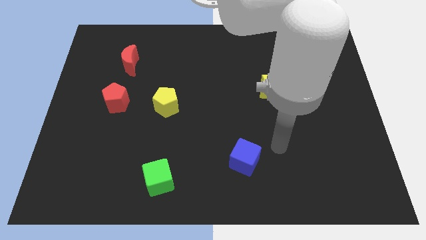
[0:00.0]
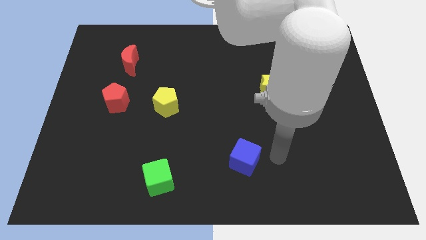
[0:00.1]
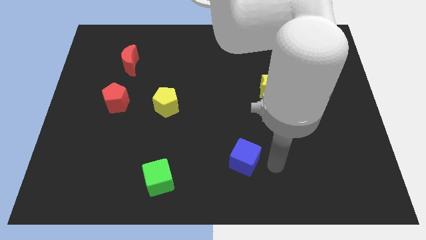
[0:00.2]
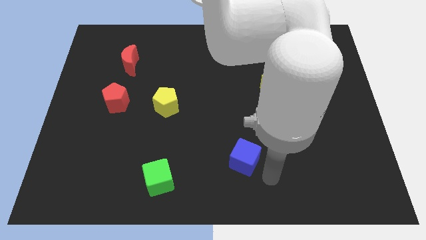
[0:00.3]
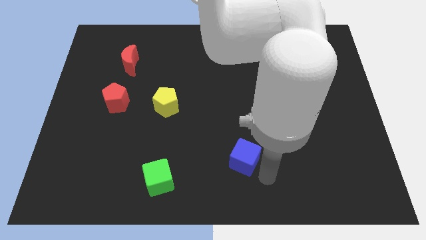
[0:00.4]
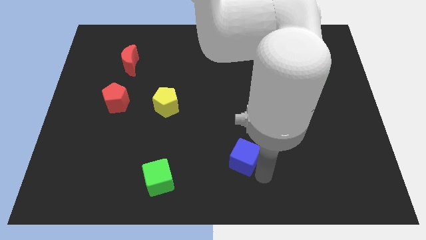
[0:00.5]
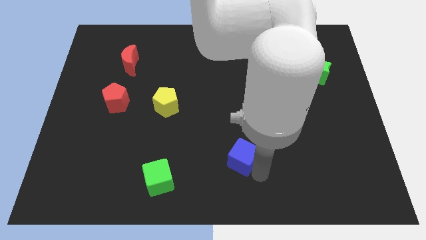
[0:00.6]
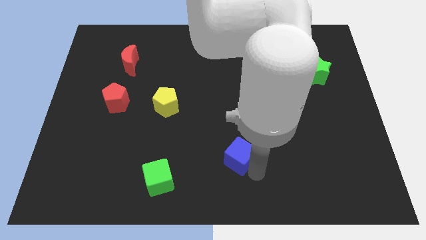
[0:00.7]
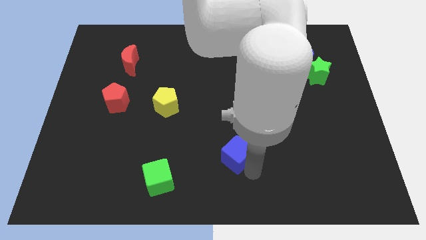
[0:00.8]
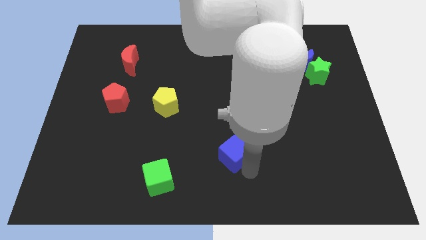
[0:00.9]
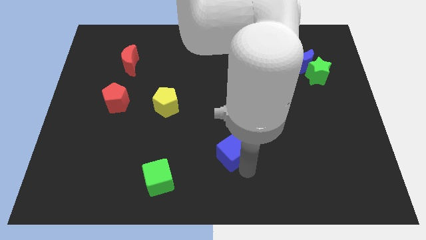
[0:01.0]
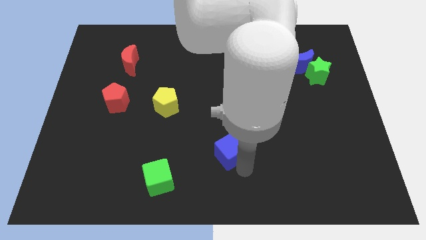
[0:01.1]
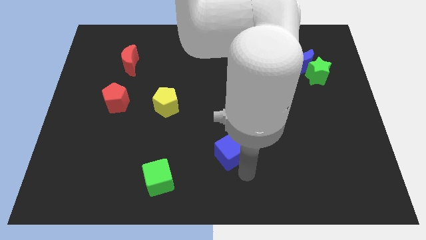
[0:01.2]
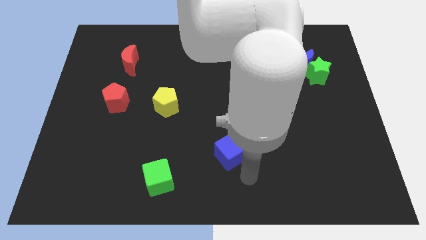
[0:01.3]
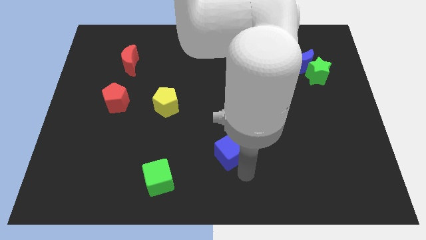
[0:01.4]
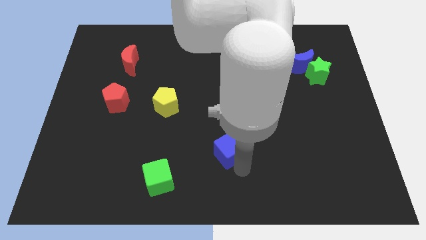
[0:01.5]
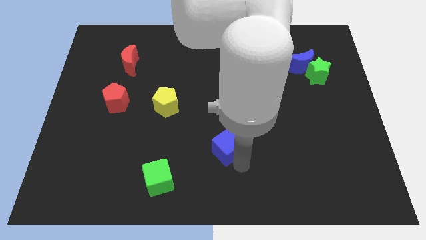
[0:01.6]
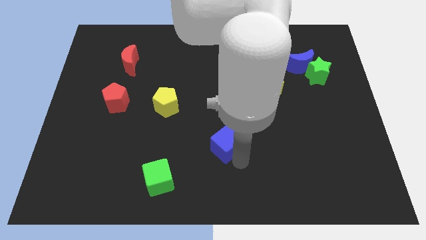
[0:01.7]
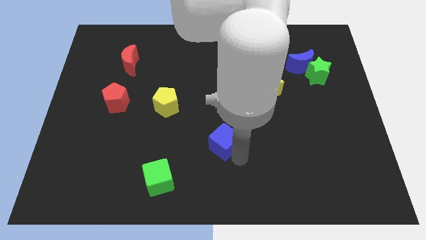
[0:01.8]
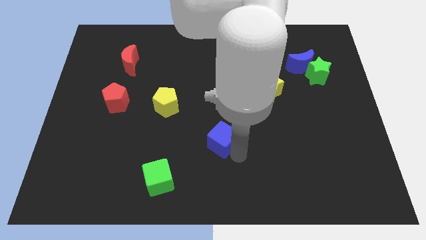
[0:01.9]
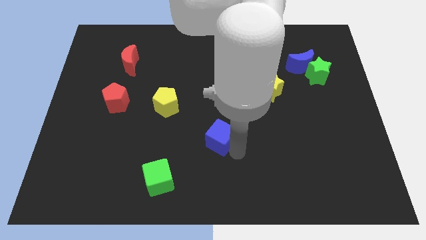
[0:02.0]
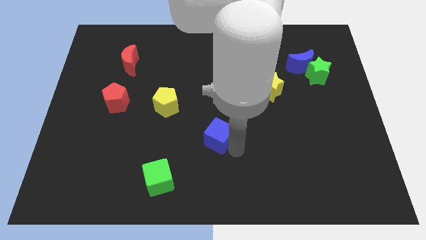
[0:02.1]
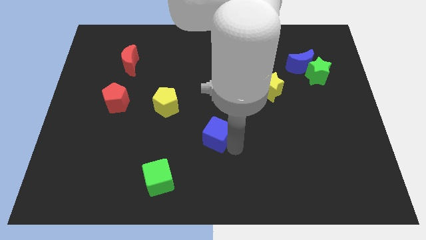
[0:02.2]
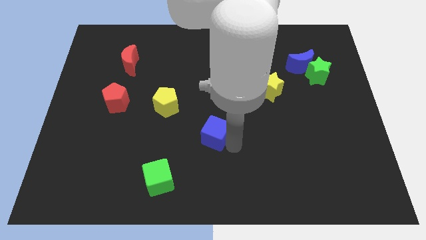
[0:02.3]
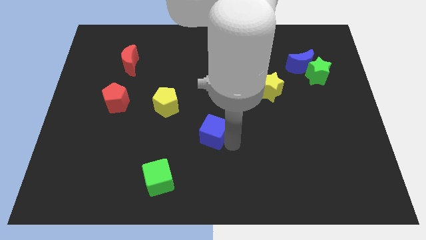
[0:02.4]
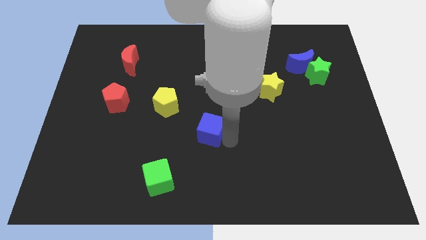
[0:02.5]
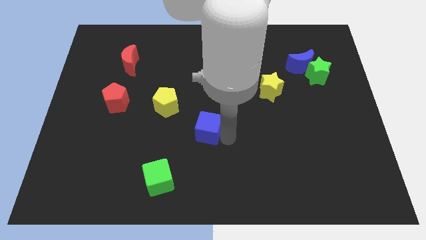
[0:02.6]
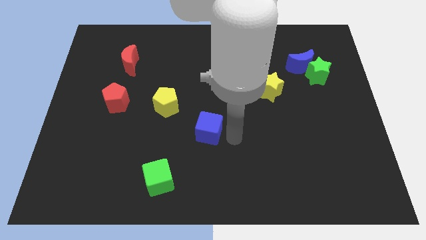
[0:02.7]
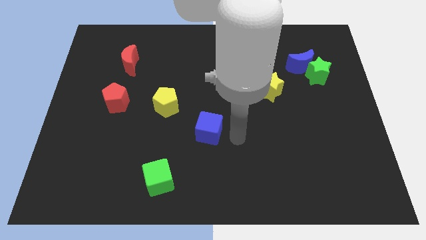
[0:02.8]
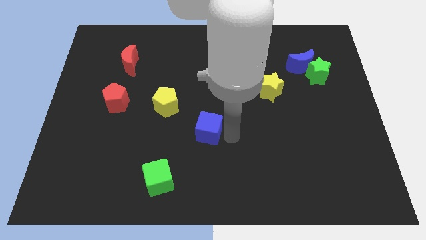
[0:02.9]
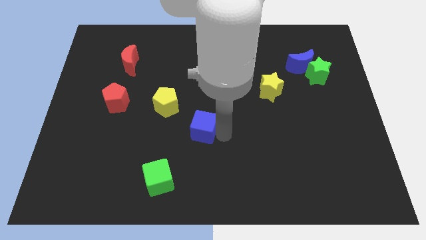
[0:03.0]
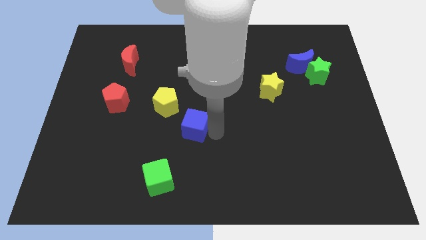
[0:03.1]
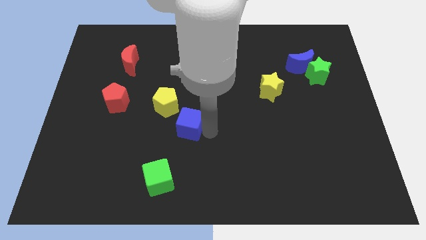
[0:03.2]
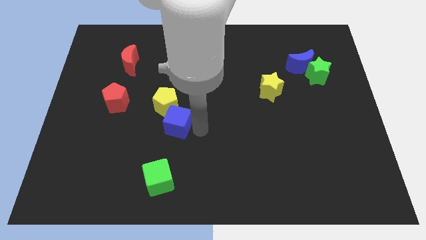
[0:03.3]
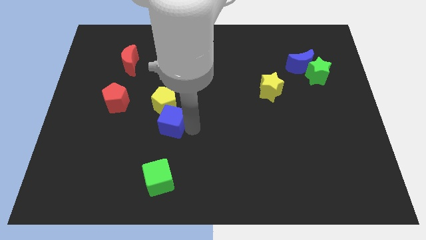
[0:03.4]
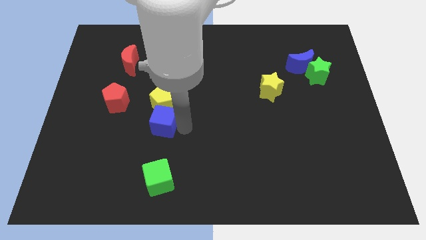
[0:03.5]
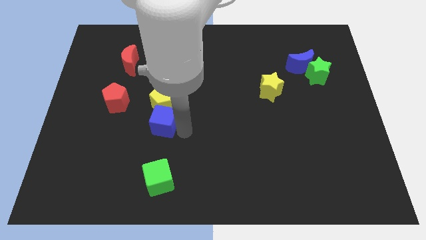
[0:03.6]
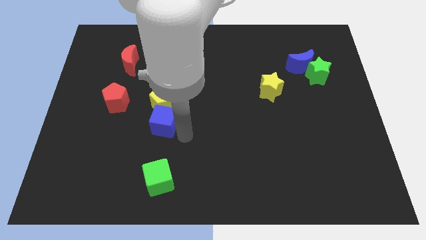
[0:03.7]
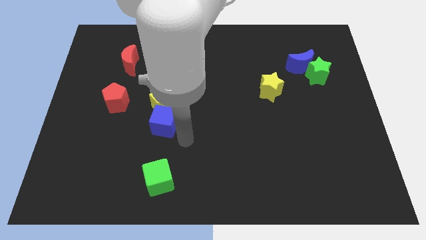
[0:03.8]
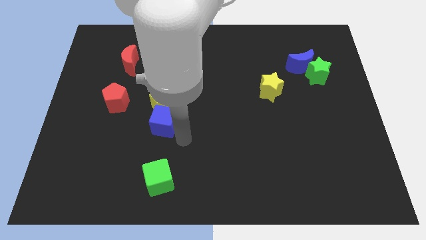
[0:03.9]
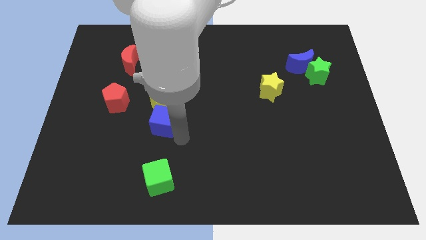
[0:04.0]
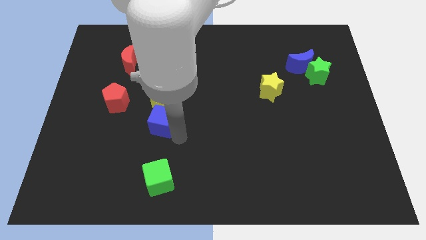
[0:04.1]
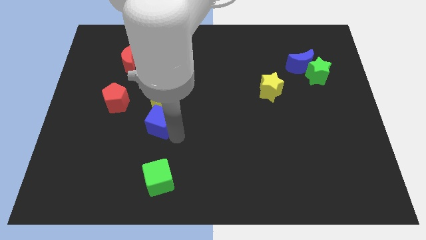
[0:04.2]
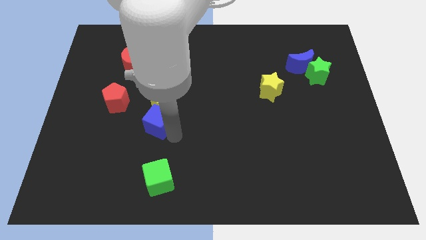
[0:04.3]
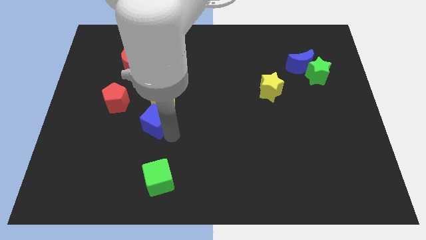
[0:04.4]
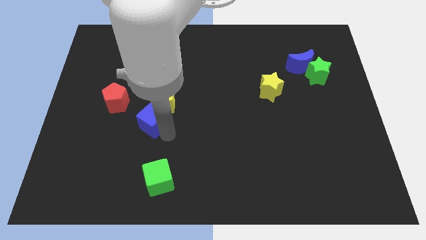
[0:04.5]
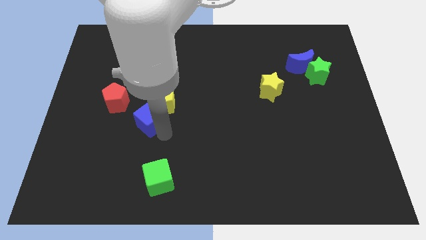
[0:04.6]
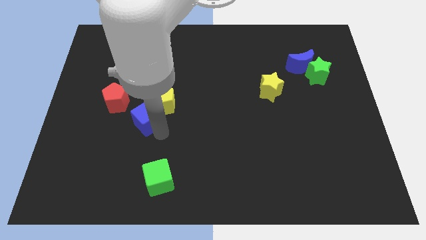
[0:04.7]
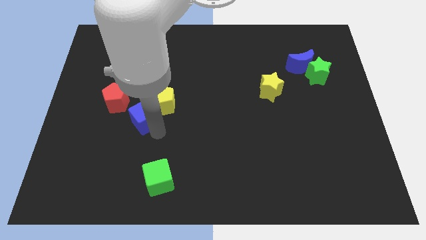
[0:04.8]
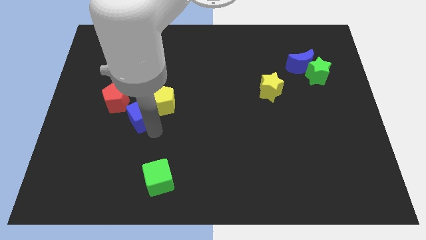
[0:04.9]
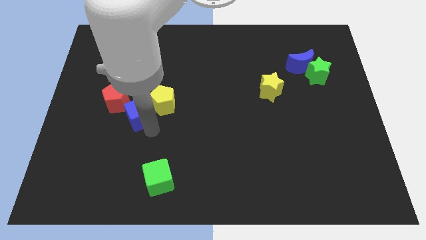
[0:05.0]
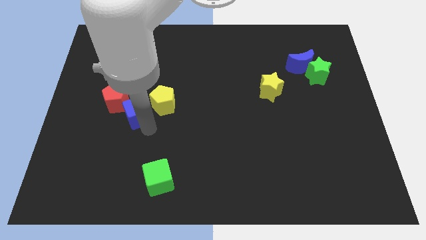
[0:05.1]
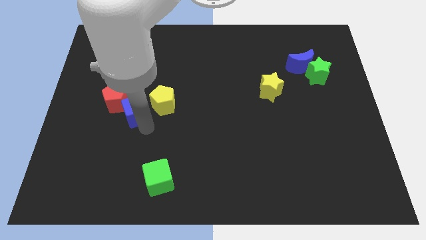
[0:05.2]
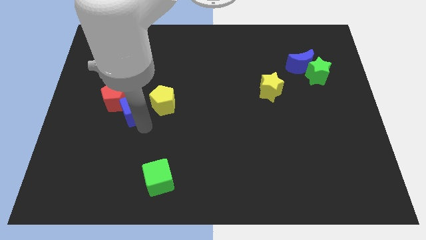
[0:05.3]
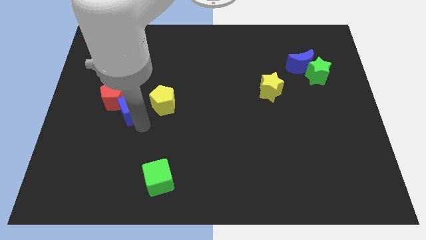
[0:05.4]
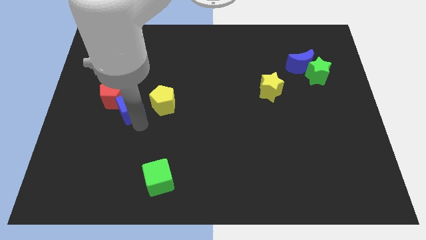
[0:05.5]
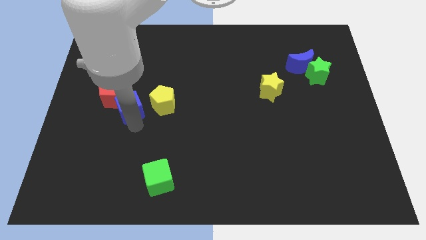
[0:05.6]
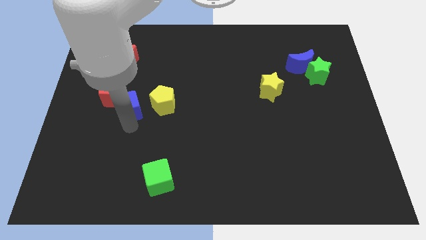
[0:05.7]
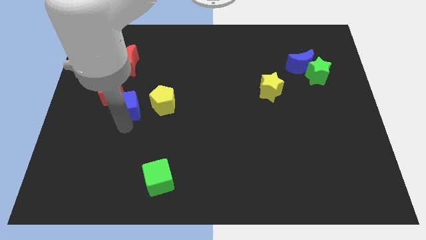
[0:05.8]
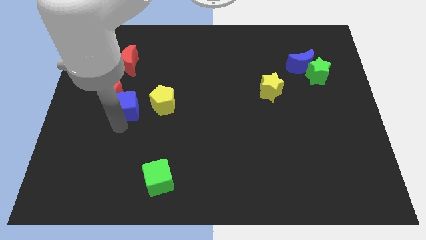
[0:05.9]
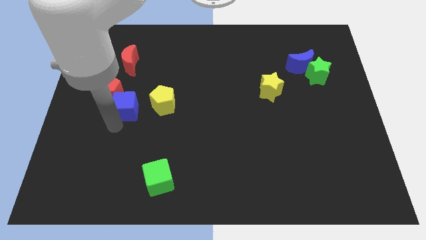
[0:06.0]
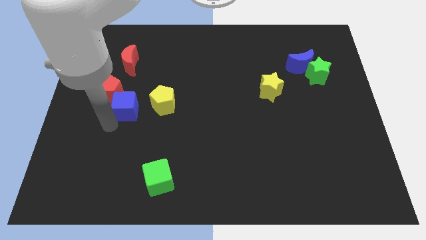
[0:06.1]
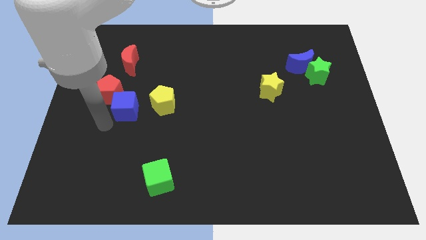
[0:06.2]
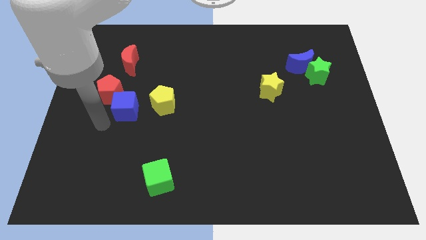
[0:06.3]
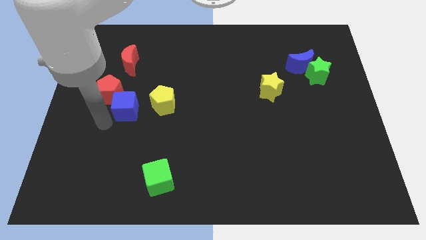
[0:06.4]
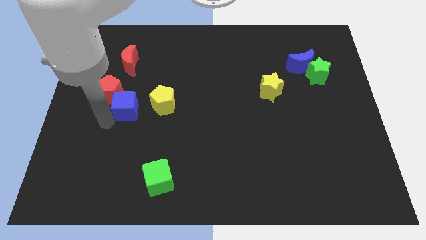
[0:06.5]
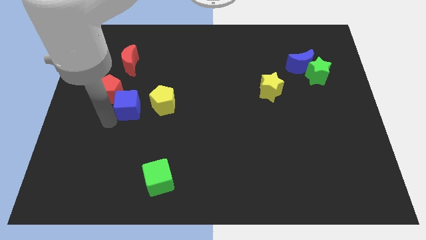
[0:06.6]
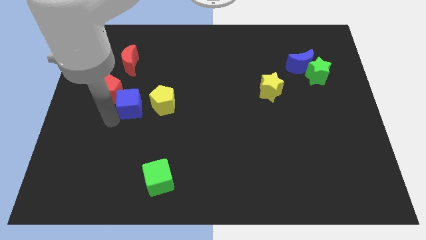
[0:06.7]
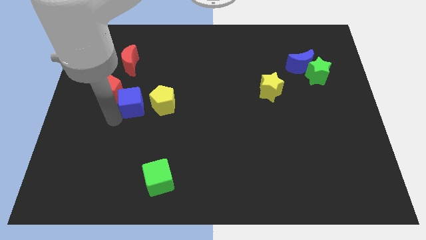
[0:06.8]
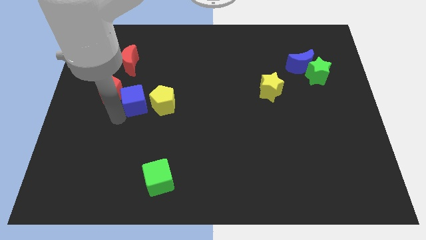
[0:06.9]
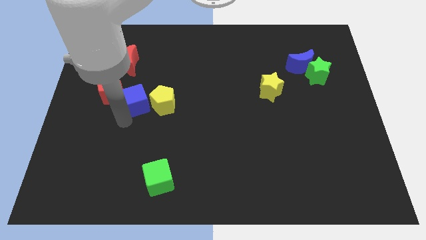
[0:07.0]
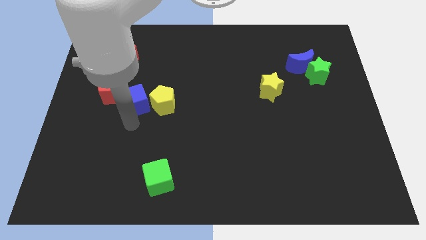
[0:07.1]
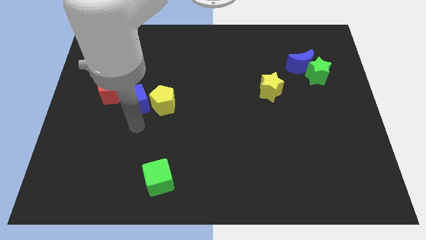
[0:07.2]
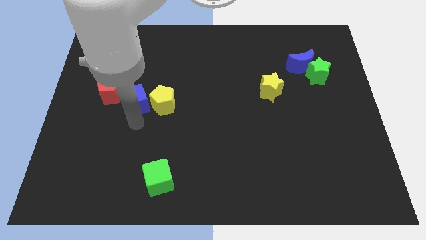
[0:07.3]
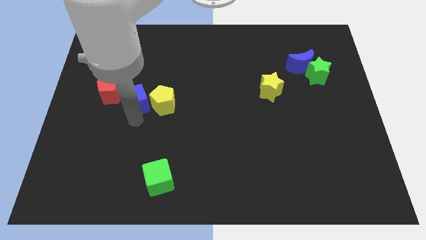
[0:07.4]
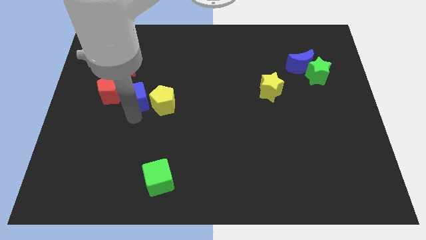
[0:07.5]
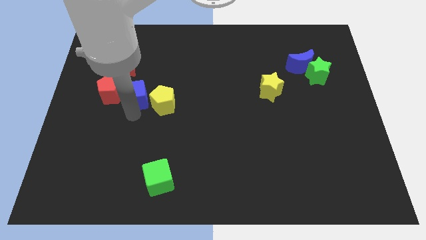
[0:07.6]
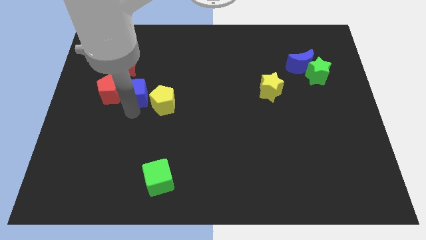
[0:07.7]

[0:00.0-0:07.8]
push the blue cube diagonally up and to the right of the red pentagon
